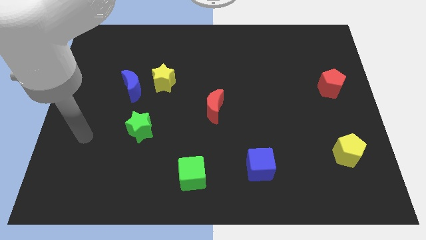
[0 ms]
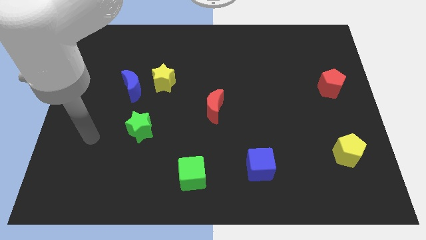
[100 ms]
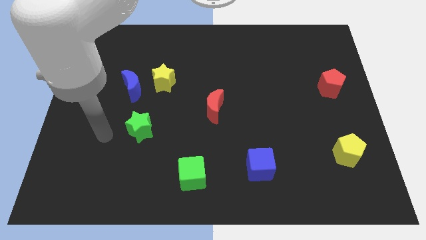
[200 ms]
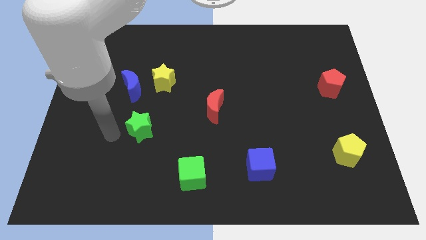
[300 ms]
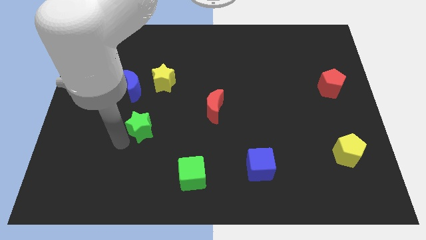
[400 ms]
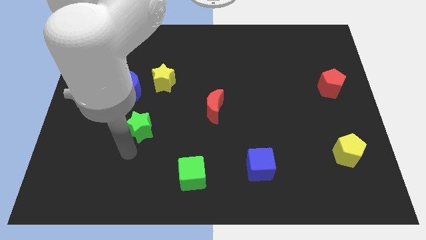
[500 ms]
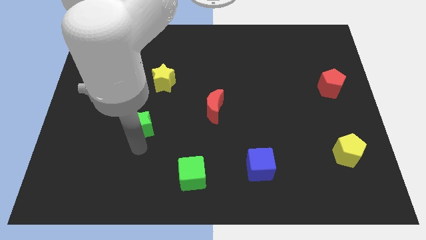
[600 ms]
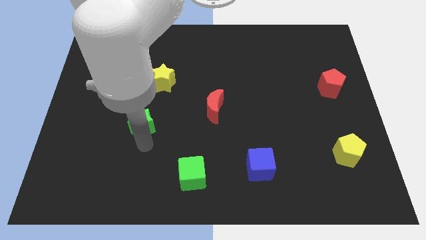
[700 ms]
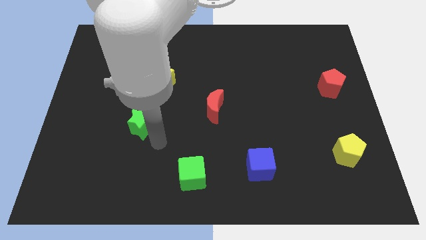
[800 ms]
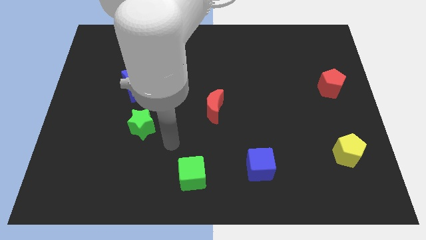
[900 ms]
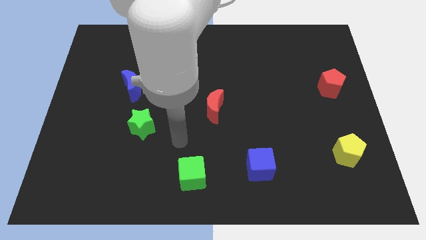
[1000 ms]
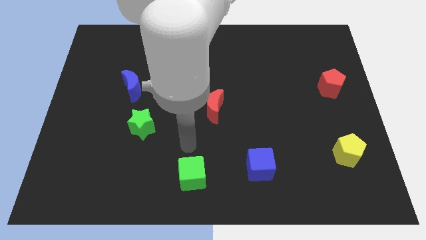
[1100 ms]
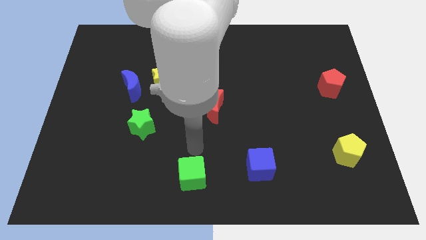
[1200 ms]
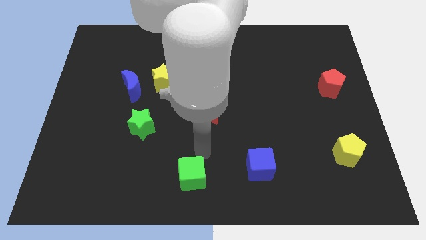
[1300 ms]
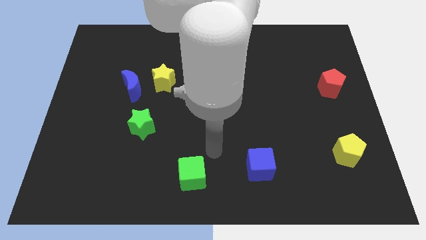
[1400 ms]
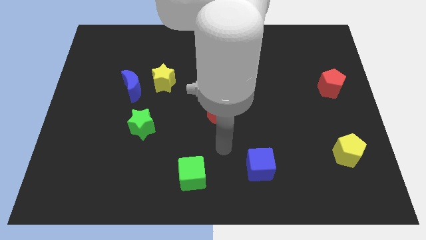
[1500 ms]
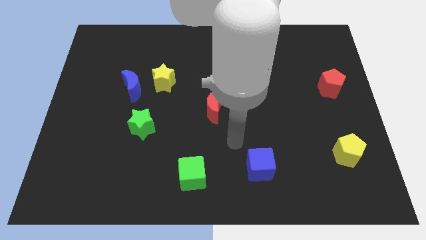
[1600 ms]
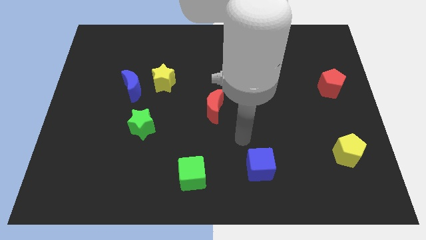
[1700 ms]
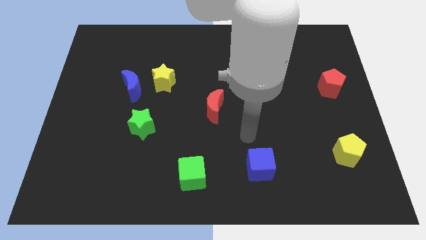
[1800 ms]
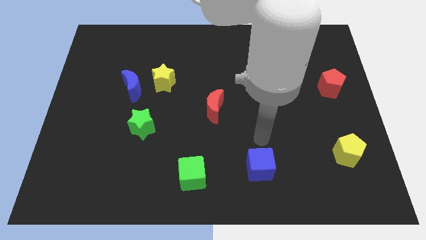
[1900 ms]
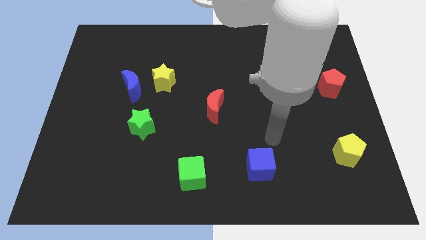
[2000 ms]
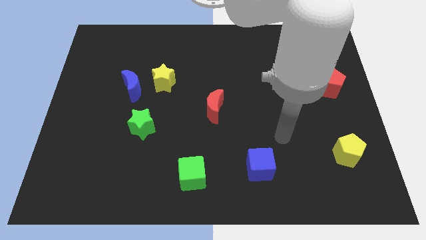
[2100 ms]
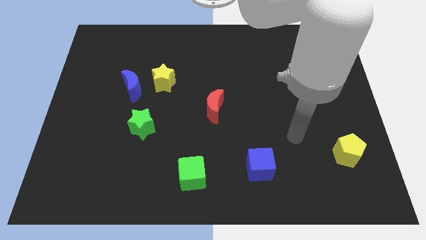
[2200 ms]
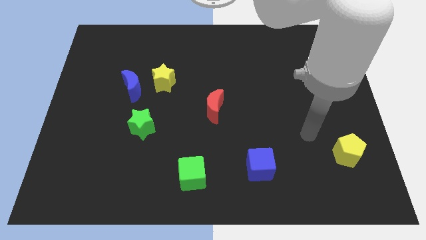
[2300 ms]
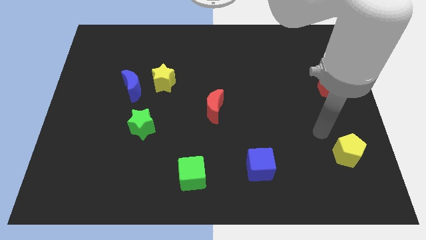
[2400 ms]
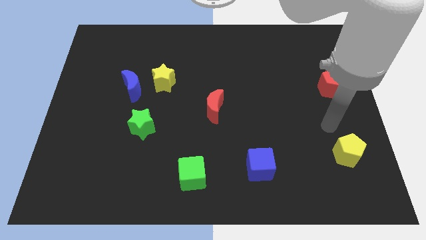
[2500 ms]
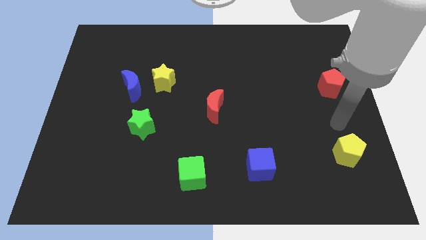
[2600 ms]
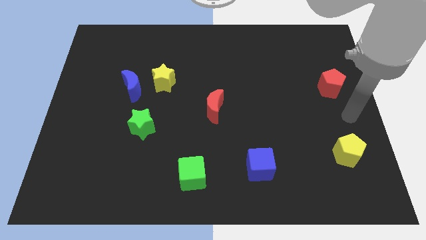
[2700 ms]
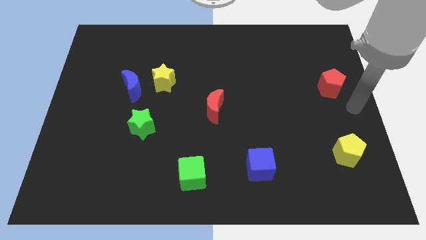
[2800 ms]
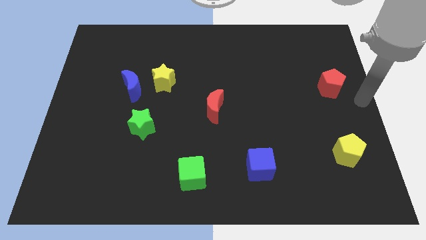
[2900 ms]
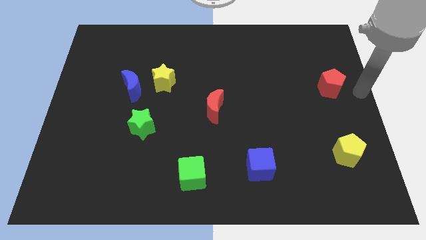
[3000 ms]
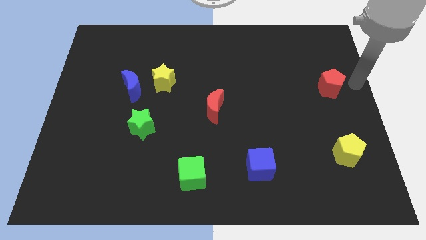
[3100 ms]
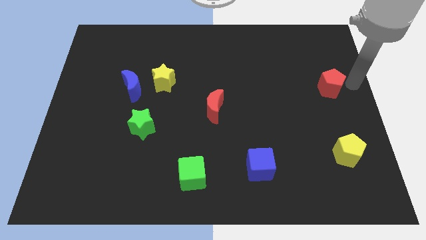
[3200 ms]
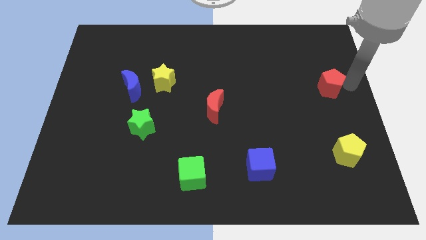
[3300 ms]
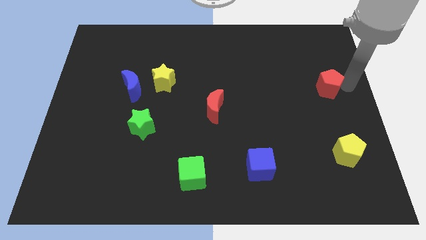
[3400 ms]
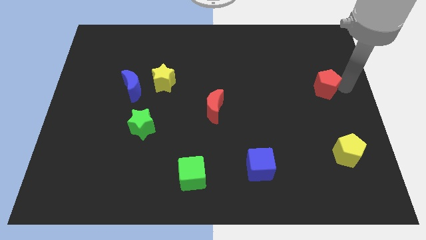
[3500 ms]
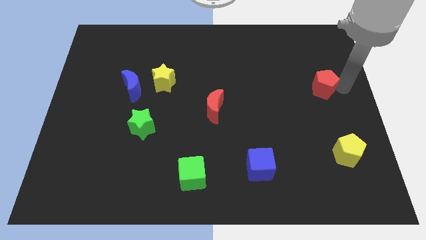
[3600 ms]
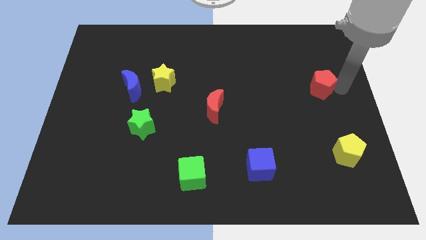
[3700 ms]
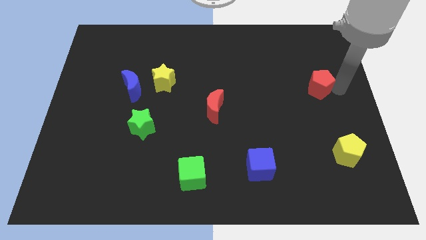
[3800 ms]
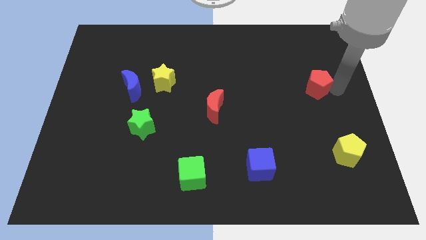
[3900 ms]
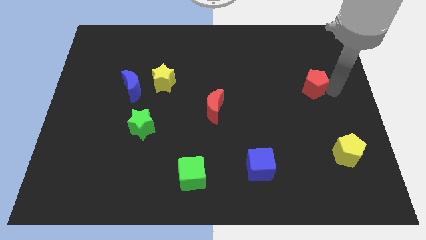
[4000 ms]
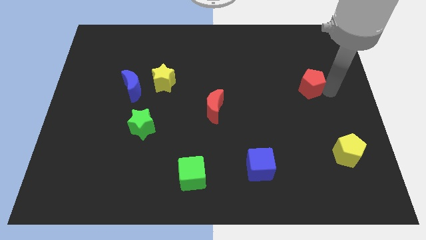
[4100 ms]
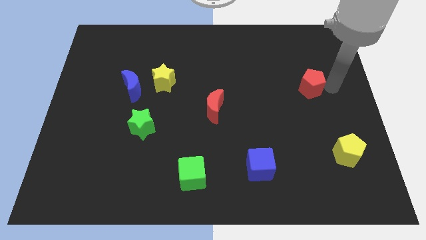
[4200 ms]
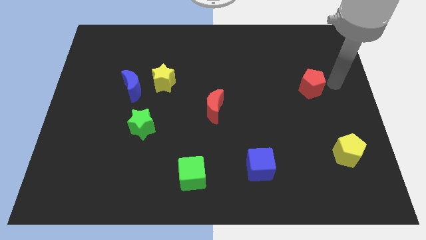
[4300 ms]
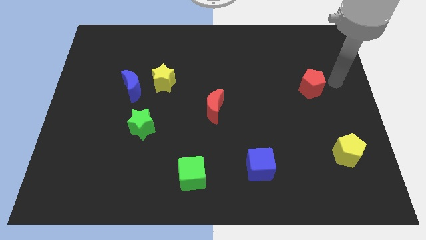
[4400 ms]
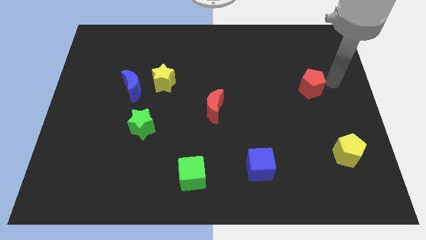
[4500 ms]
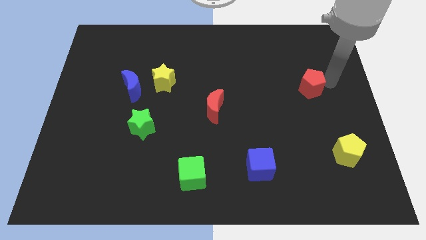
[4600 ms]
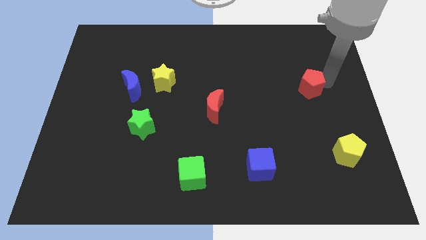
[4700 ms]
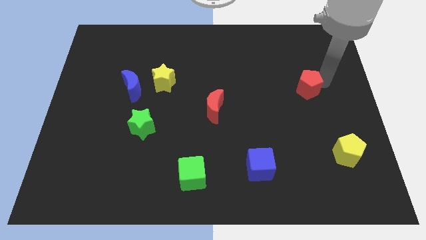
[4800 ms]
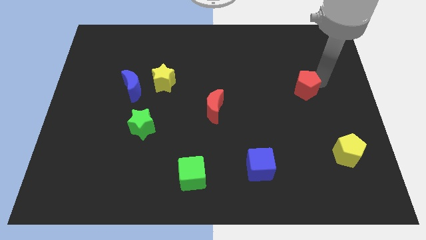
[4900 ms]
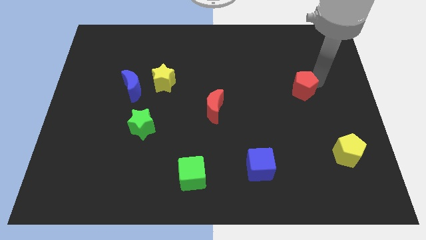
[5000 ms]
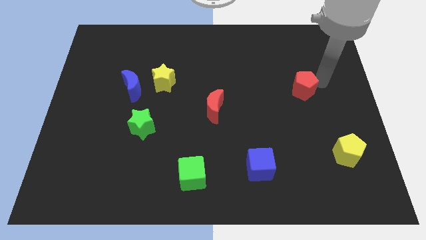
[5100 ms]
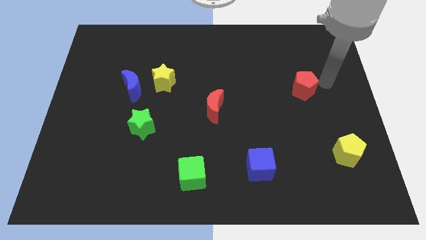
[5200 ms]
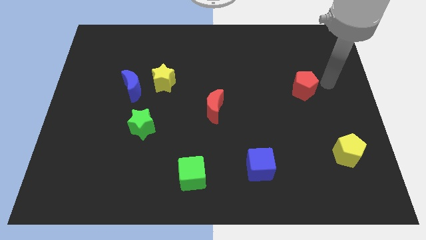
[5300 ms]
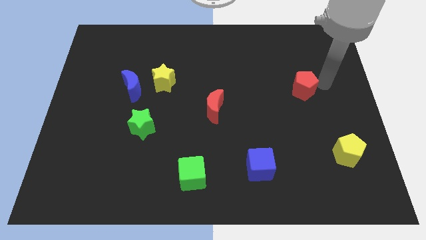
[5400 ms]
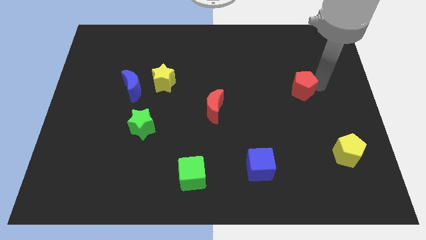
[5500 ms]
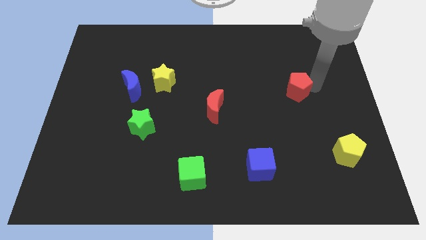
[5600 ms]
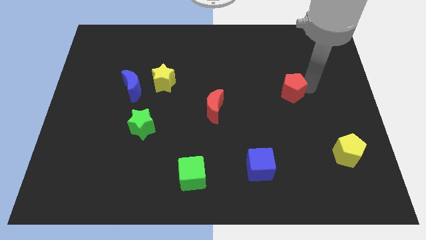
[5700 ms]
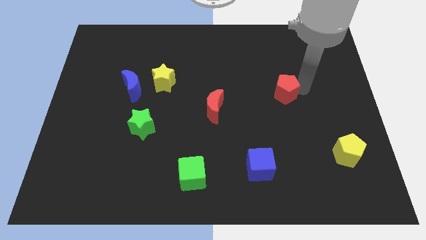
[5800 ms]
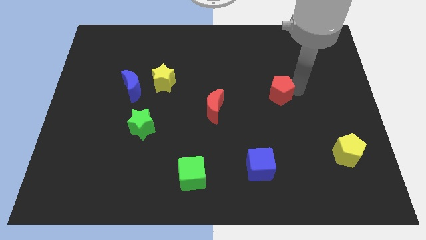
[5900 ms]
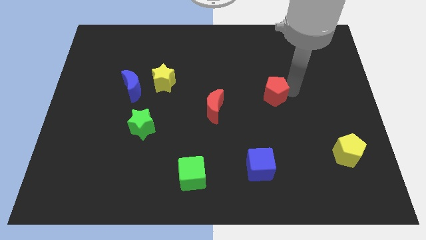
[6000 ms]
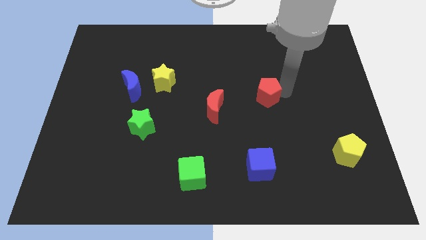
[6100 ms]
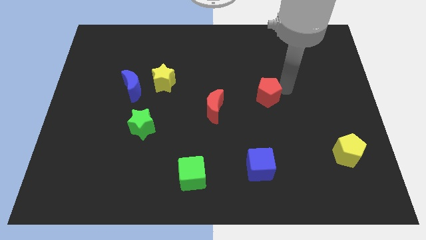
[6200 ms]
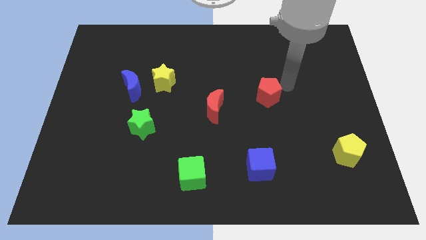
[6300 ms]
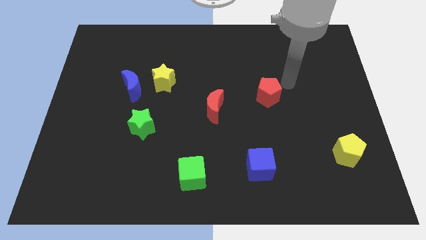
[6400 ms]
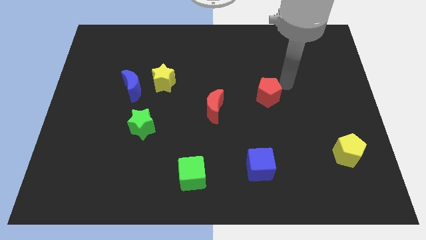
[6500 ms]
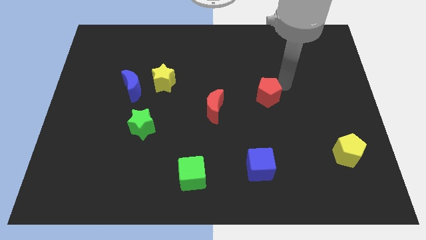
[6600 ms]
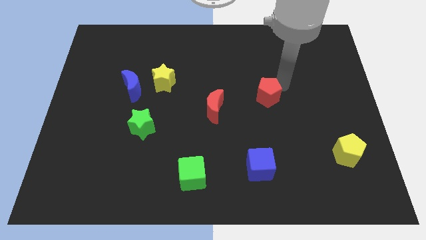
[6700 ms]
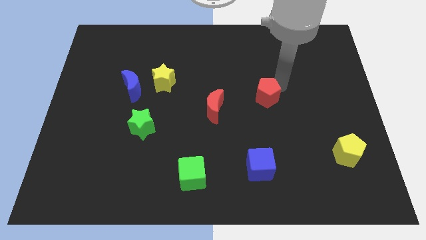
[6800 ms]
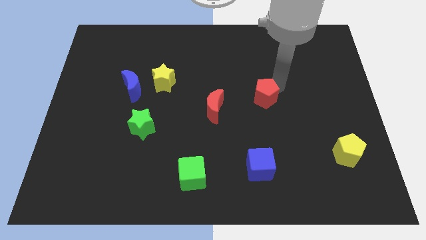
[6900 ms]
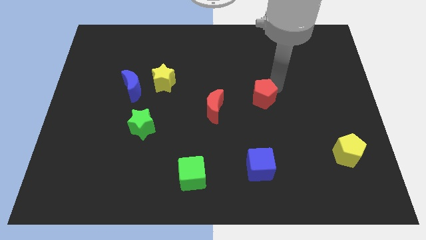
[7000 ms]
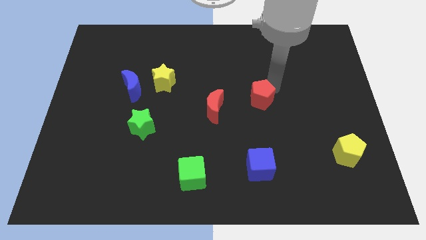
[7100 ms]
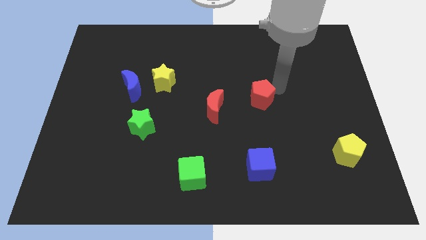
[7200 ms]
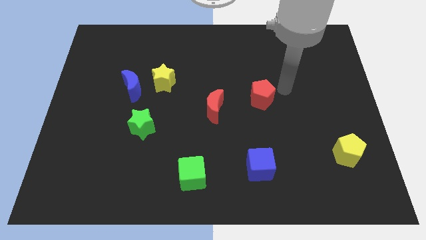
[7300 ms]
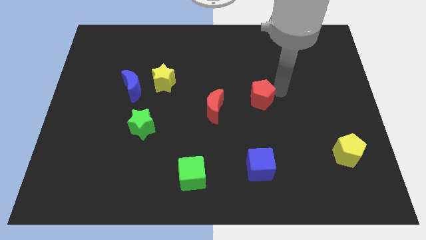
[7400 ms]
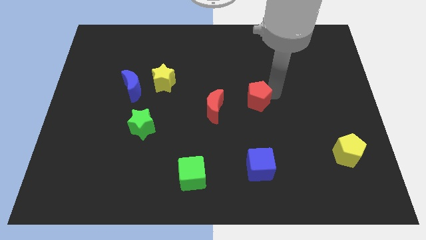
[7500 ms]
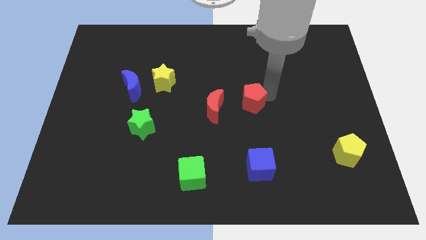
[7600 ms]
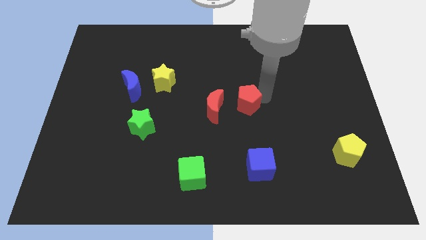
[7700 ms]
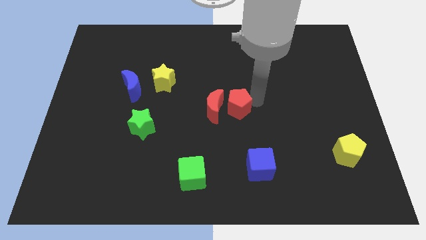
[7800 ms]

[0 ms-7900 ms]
push the red pentagon next to the red moon
